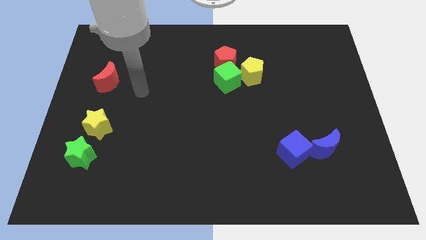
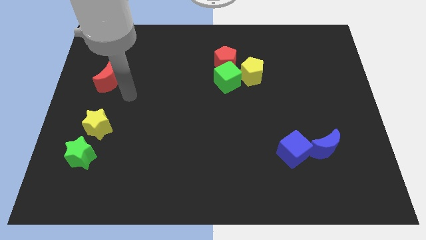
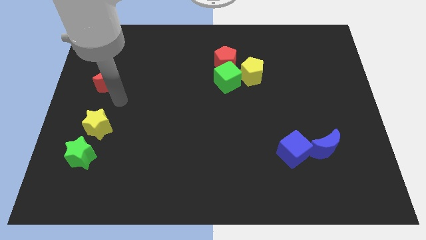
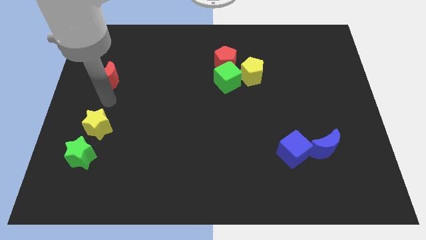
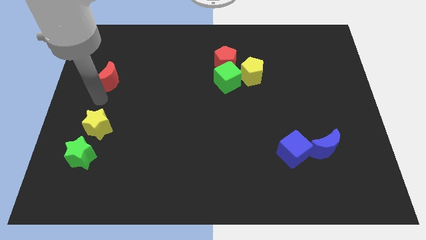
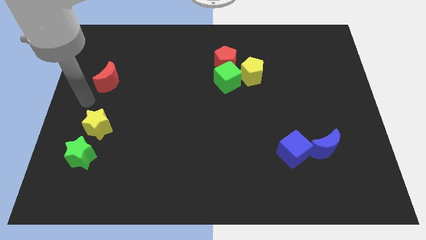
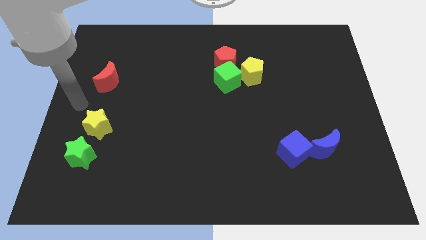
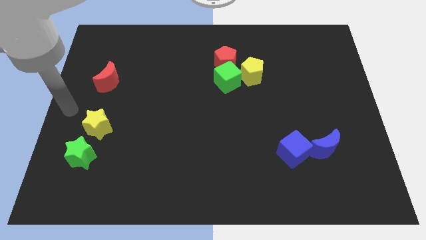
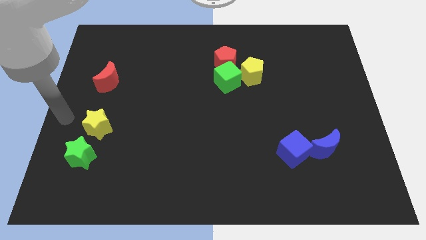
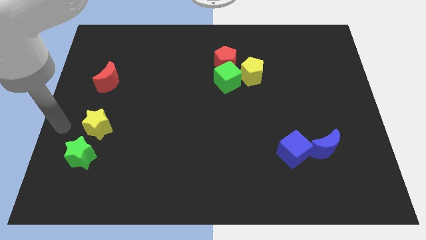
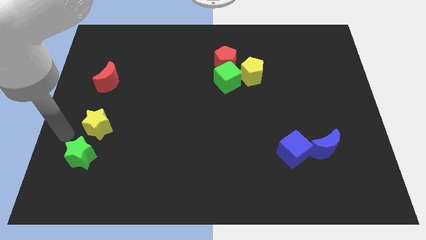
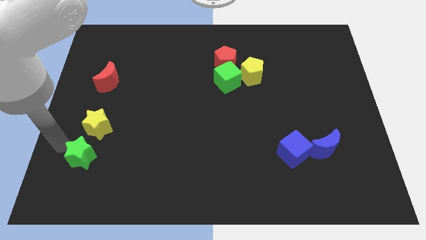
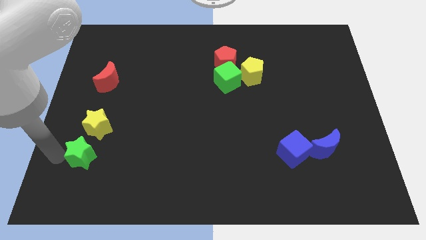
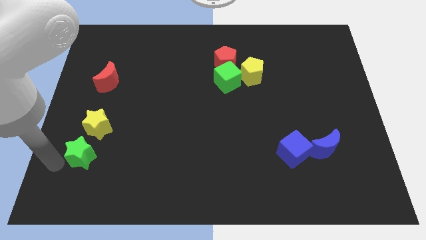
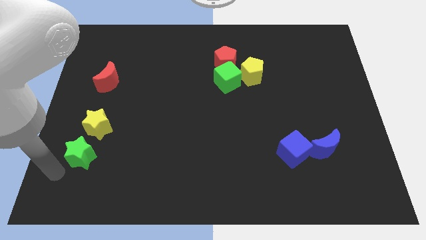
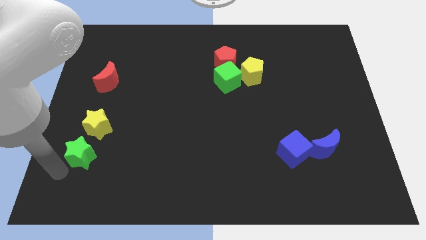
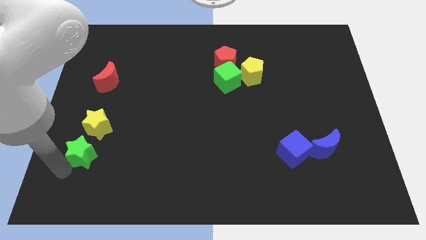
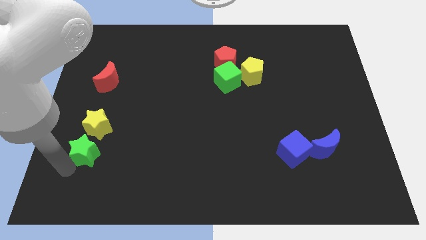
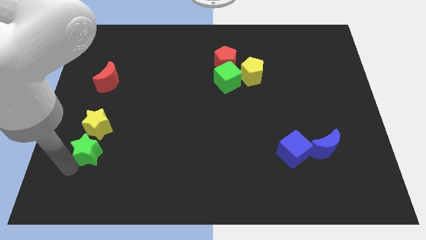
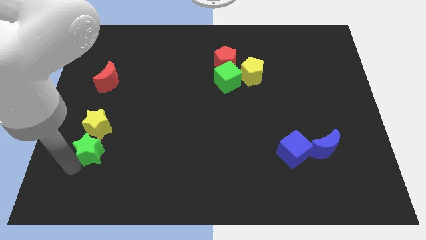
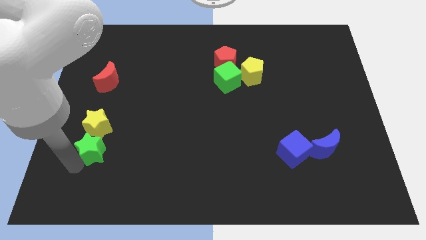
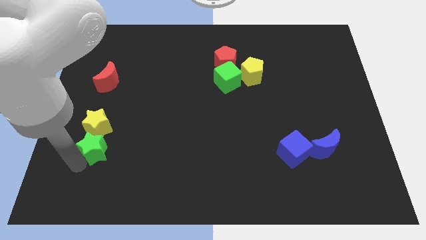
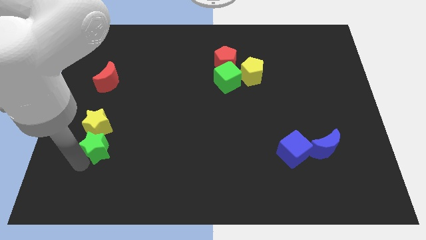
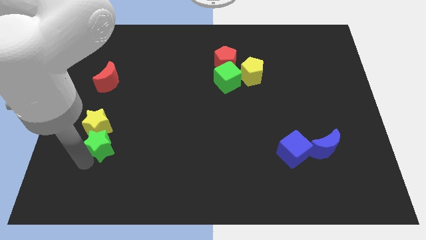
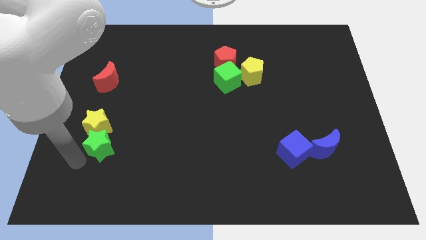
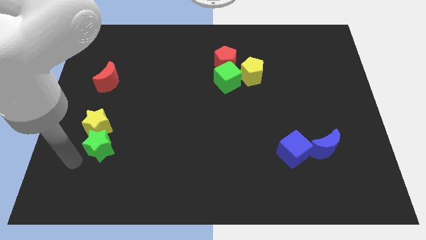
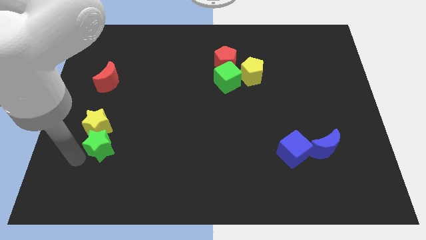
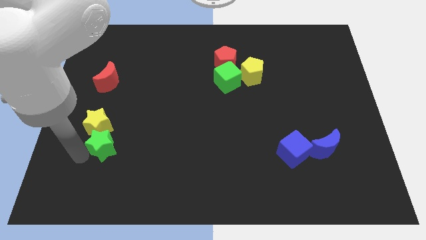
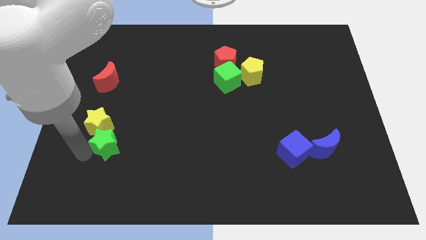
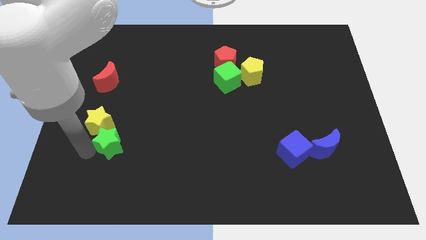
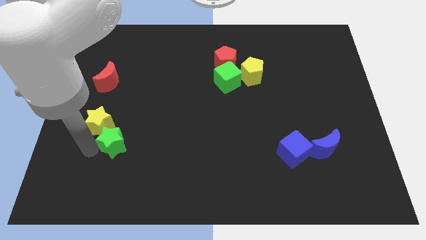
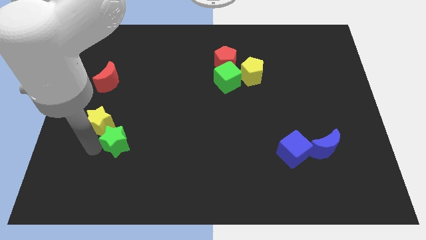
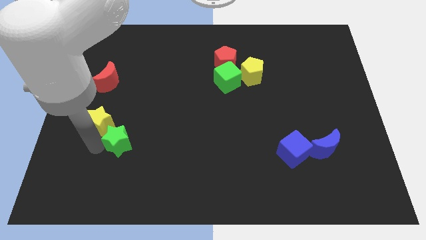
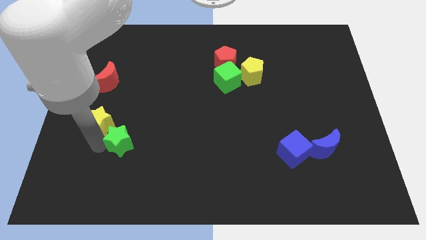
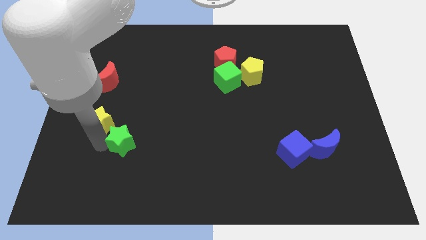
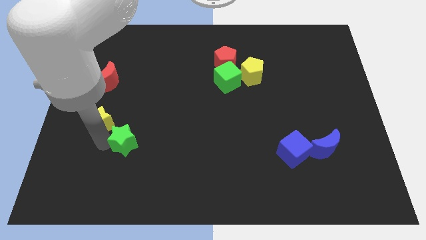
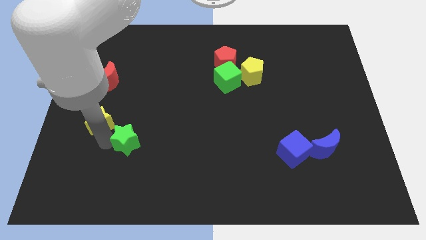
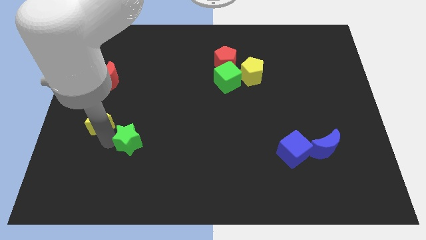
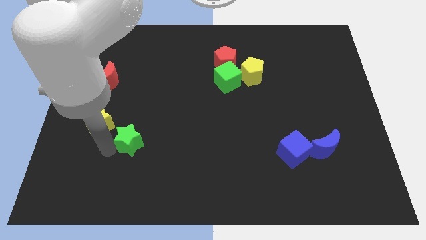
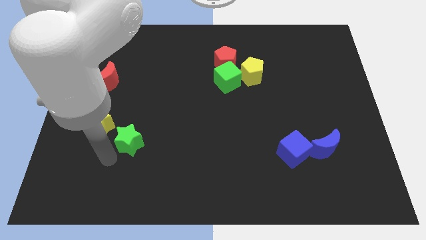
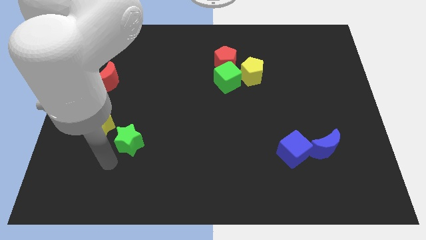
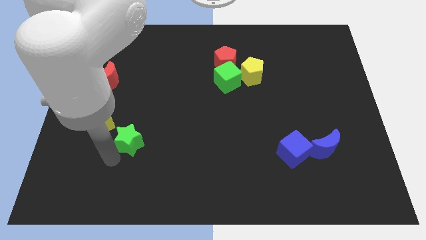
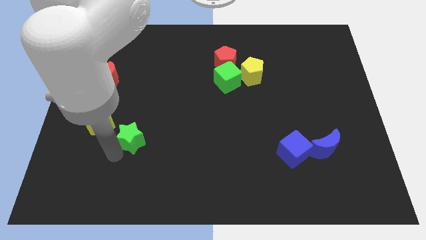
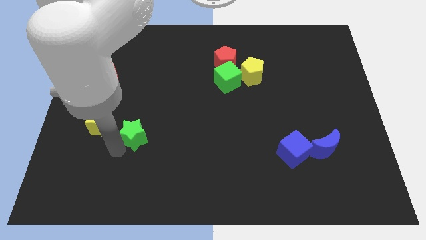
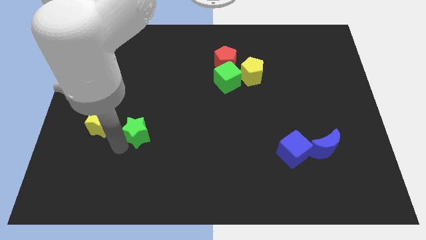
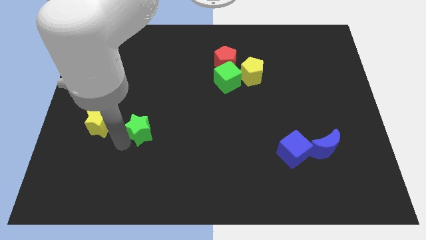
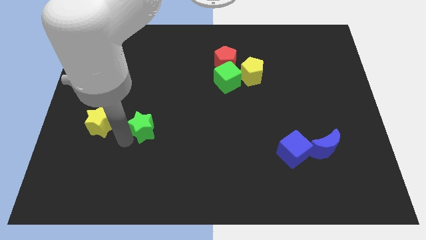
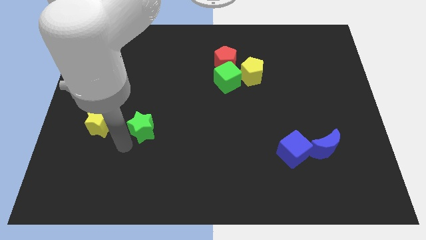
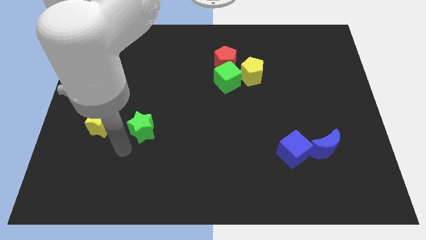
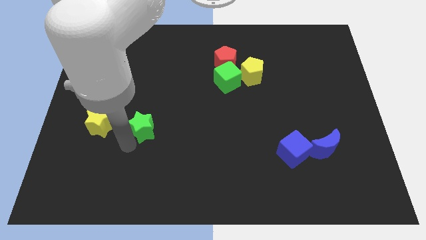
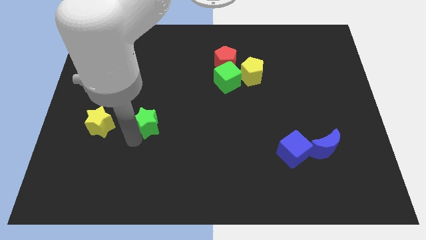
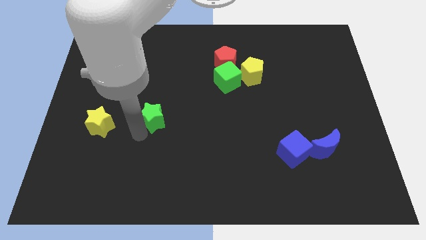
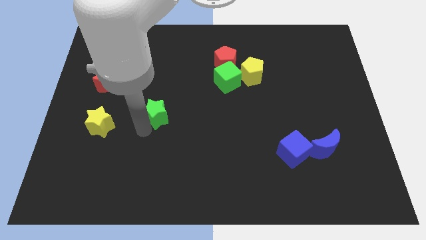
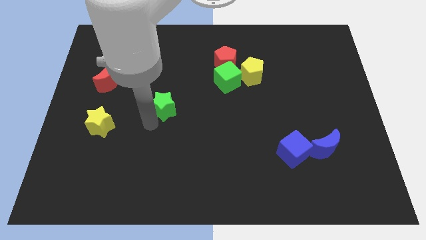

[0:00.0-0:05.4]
slide the green star upwards and to the right diagonally

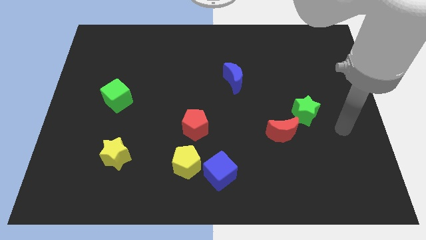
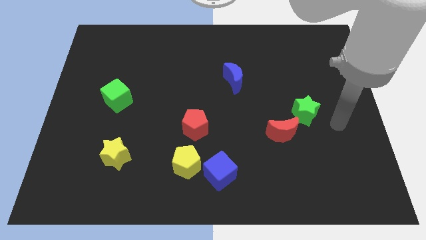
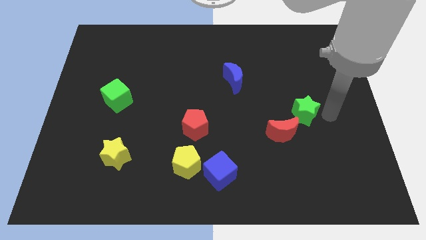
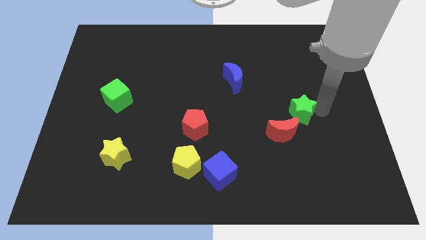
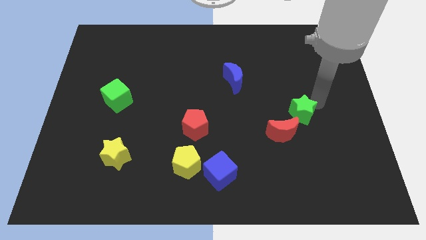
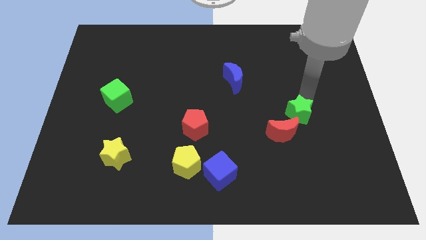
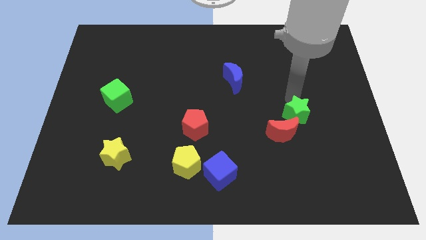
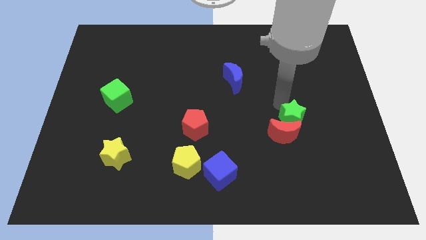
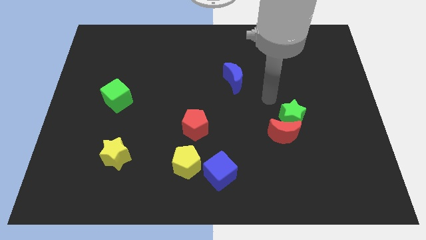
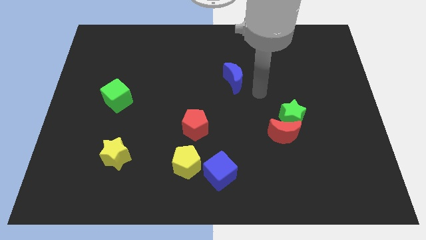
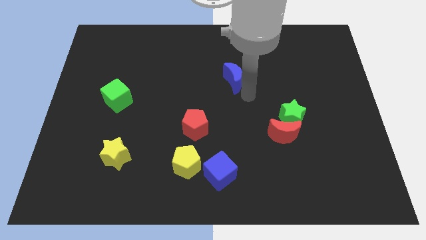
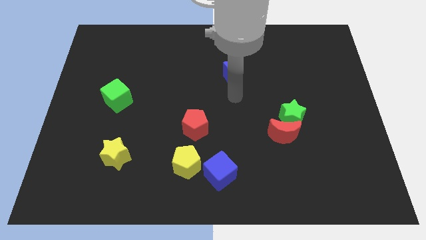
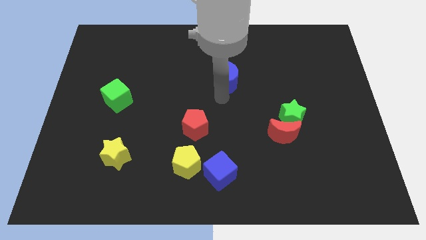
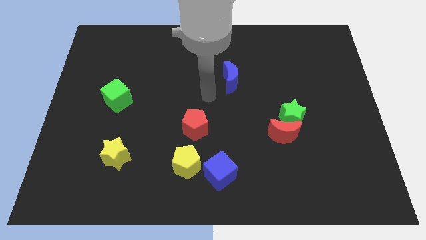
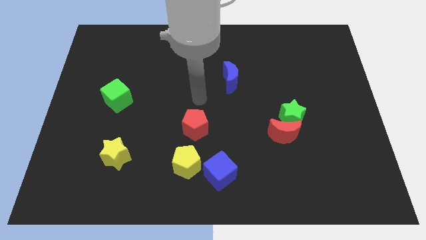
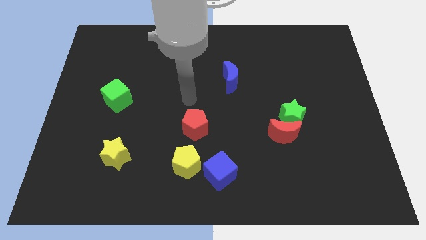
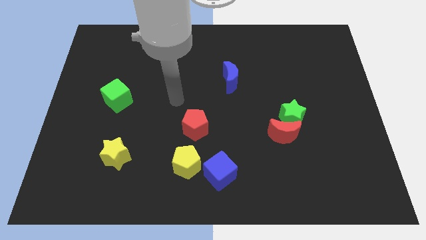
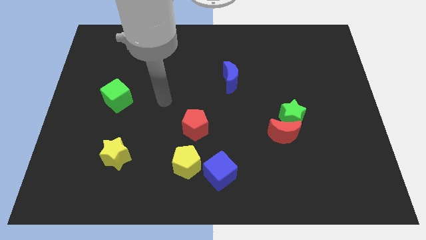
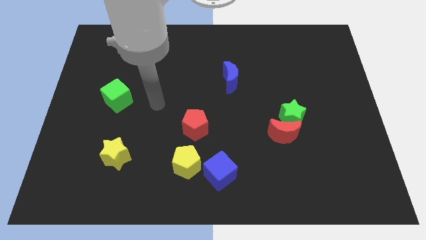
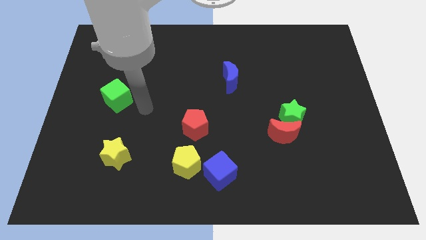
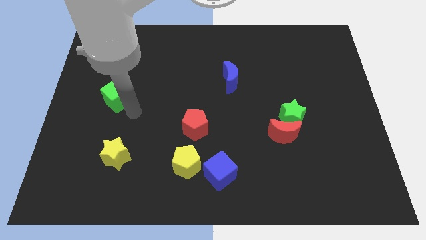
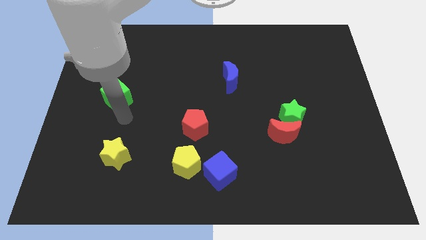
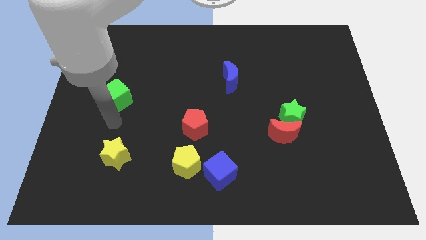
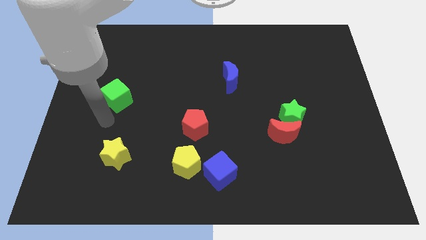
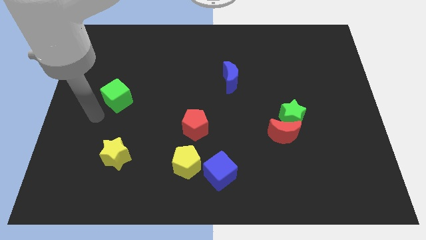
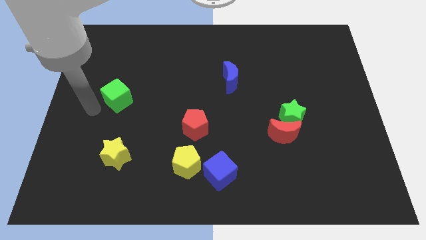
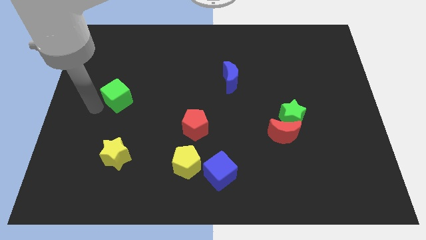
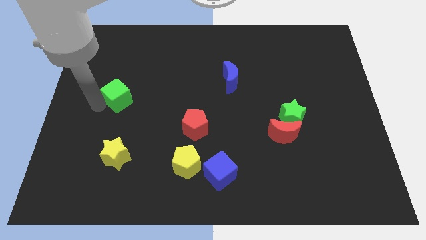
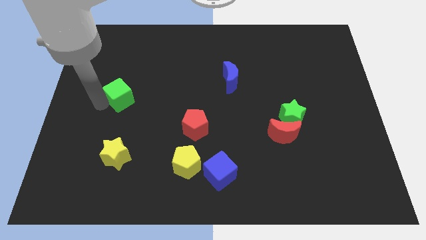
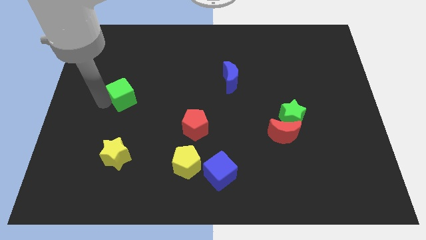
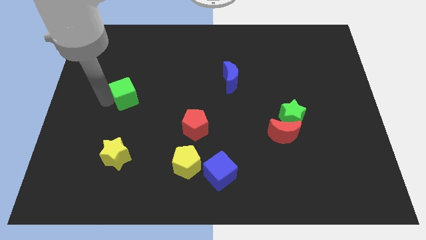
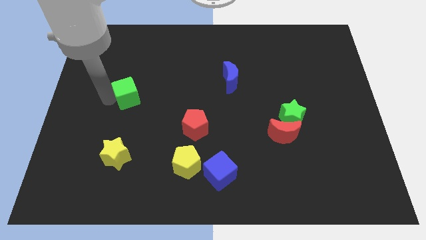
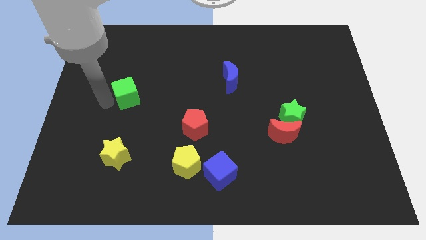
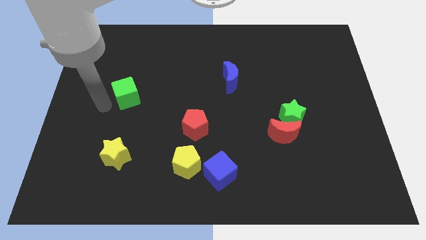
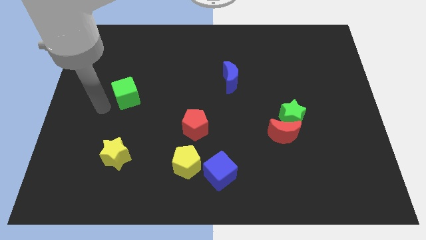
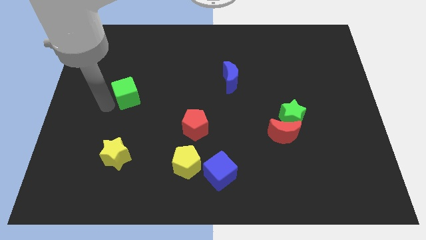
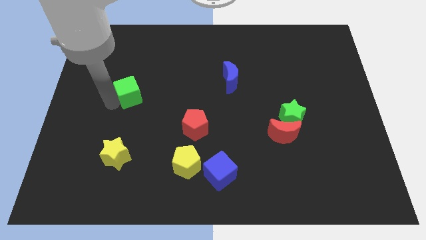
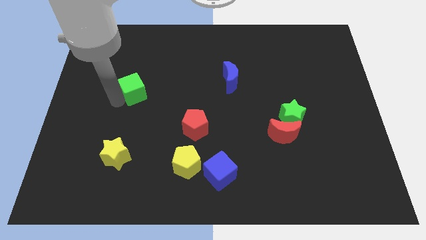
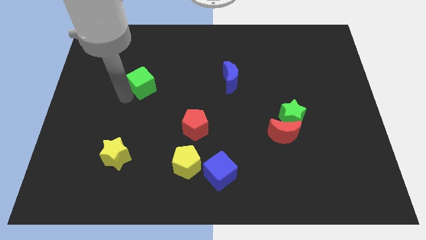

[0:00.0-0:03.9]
slide the green cube a little up and then right
